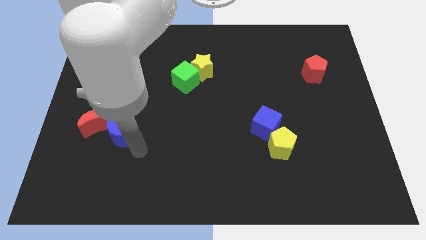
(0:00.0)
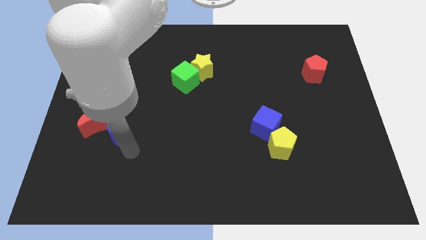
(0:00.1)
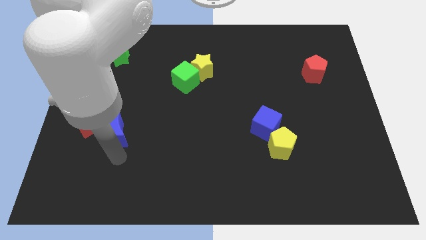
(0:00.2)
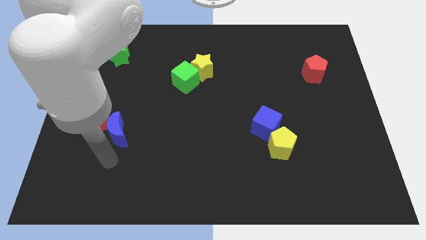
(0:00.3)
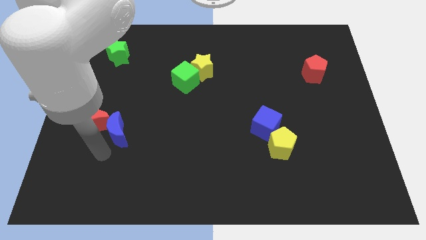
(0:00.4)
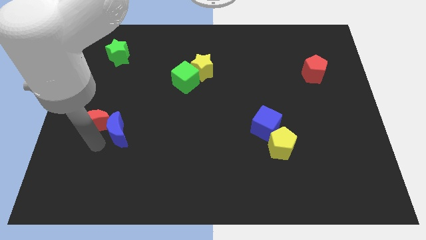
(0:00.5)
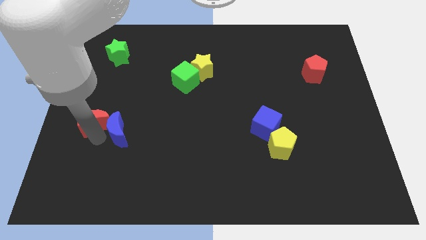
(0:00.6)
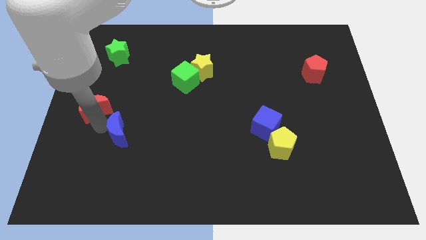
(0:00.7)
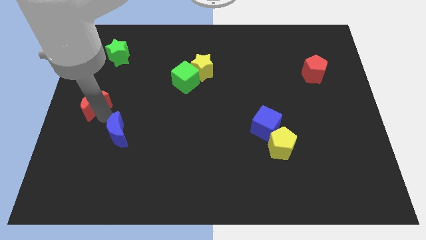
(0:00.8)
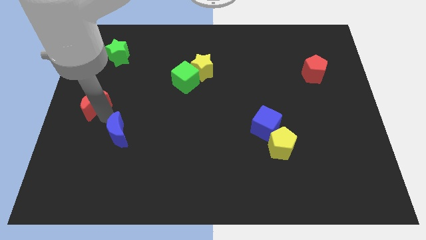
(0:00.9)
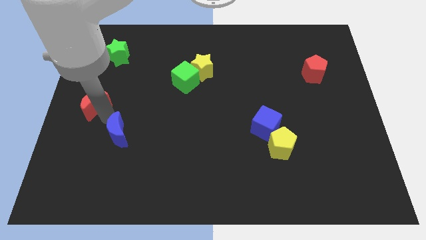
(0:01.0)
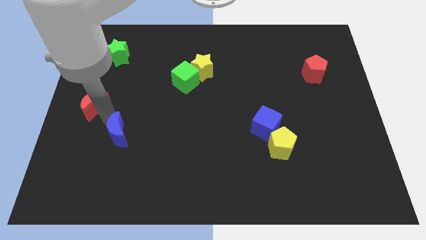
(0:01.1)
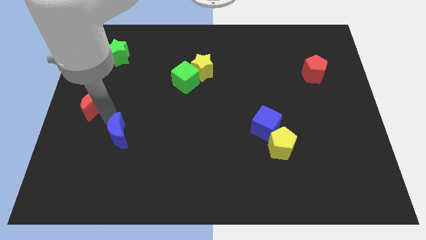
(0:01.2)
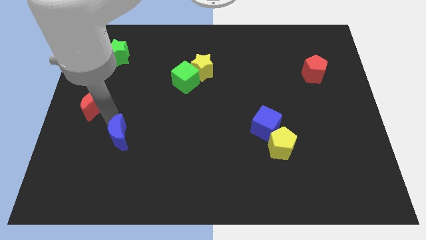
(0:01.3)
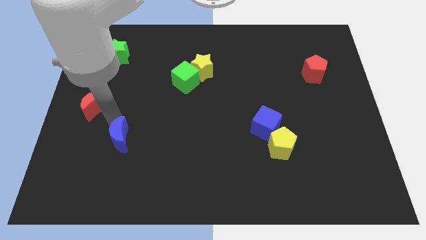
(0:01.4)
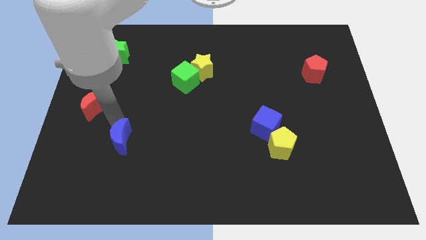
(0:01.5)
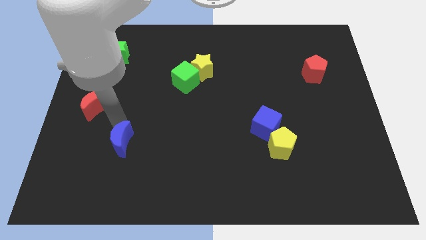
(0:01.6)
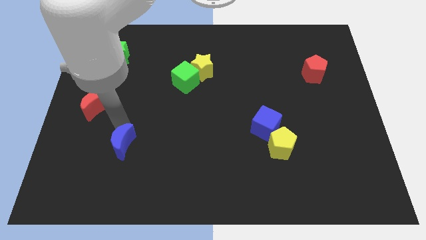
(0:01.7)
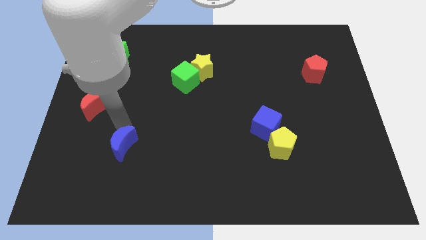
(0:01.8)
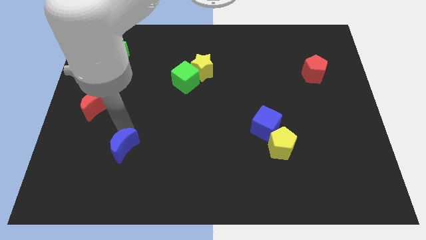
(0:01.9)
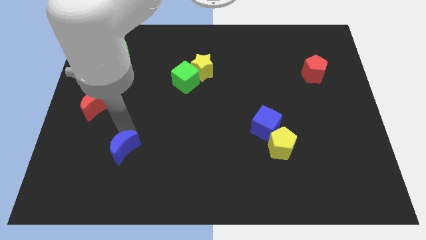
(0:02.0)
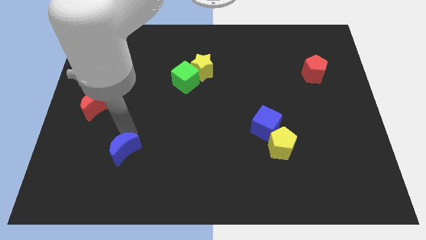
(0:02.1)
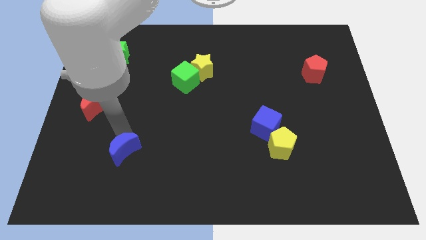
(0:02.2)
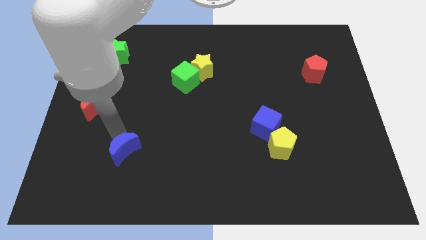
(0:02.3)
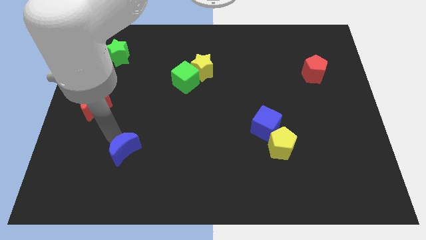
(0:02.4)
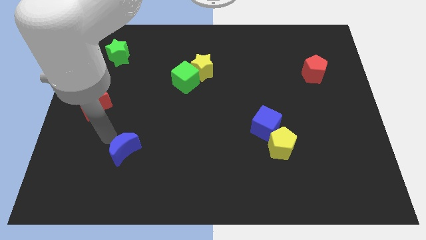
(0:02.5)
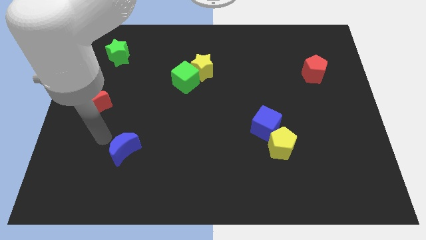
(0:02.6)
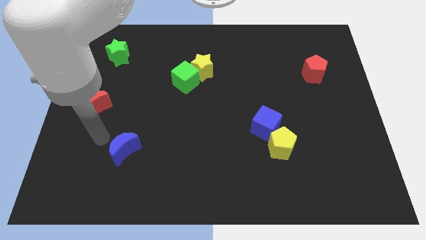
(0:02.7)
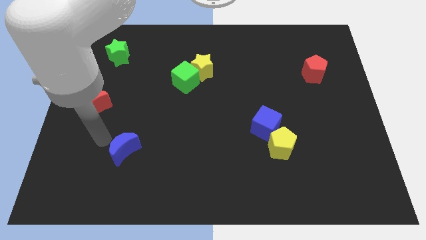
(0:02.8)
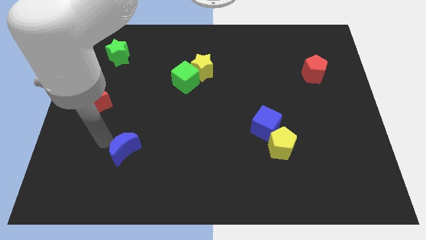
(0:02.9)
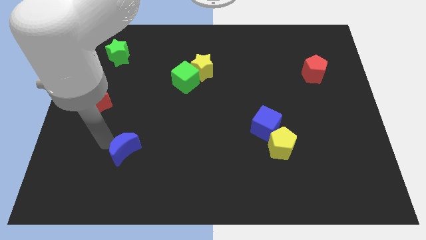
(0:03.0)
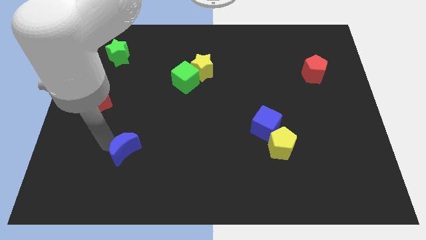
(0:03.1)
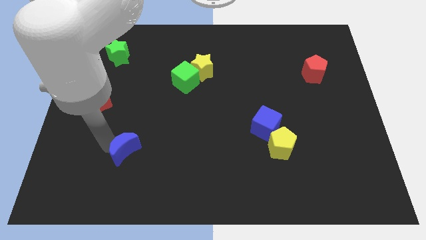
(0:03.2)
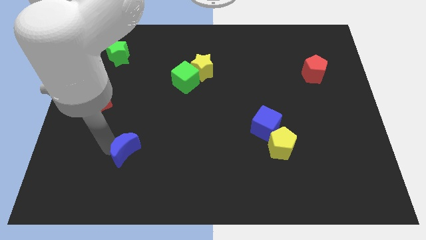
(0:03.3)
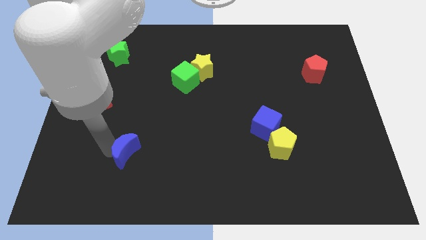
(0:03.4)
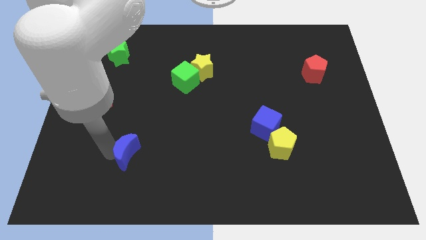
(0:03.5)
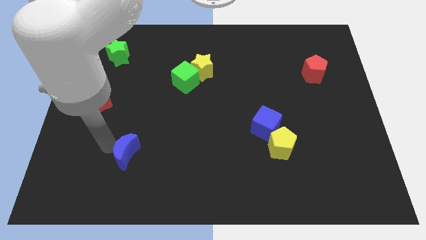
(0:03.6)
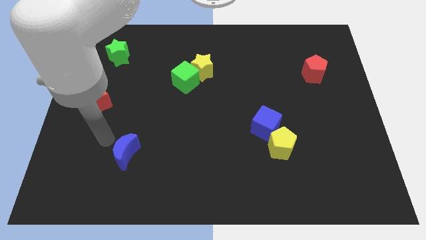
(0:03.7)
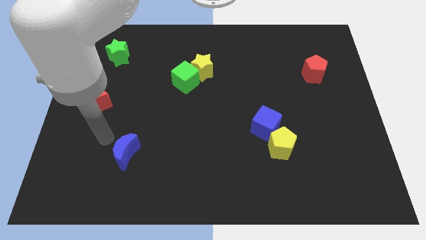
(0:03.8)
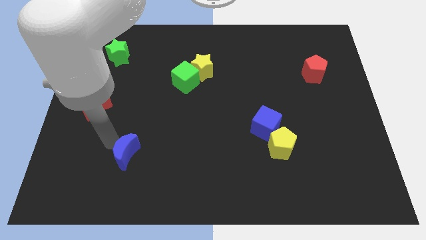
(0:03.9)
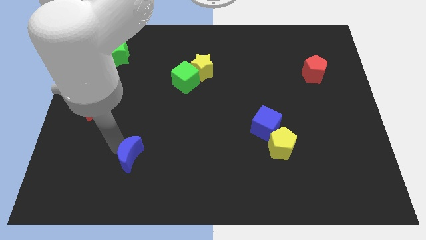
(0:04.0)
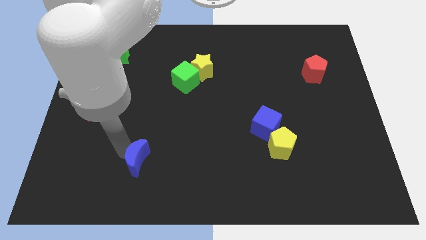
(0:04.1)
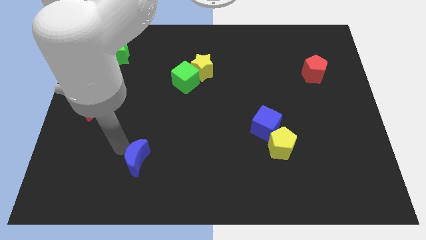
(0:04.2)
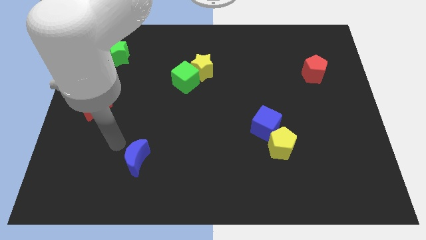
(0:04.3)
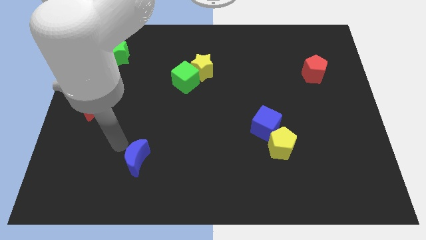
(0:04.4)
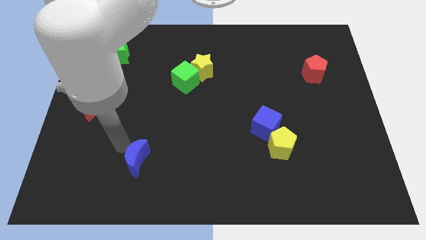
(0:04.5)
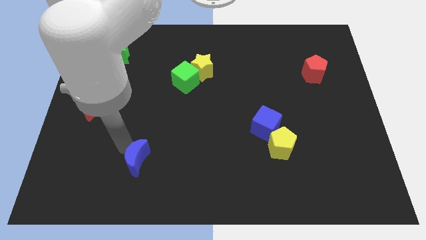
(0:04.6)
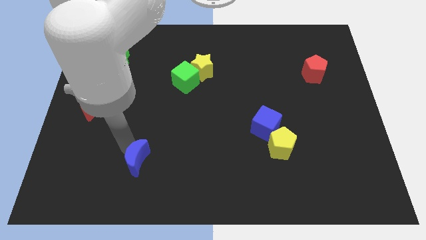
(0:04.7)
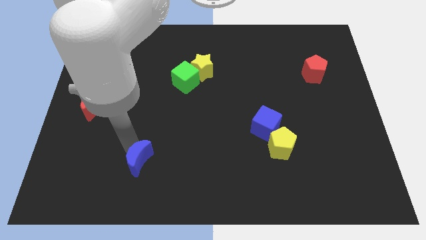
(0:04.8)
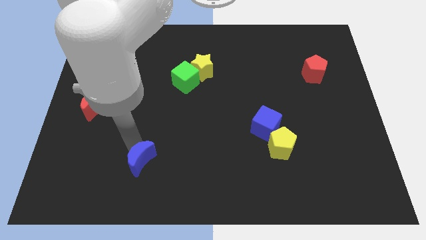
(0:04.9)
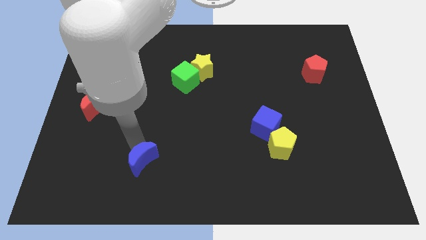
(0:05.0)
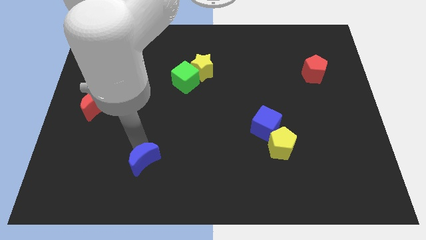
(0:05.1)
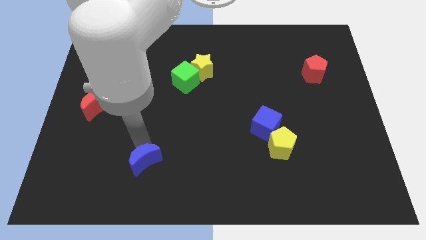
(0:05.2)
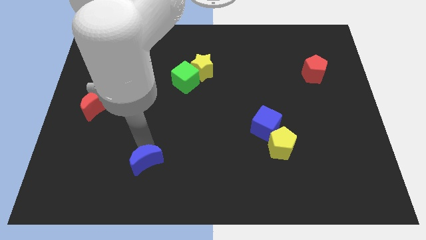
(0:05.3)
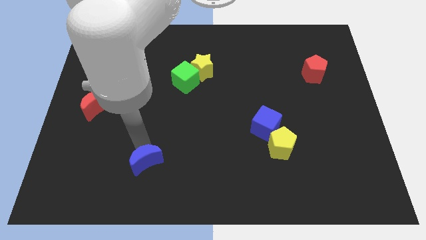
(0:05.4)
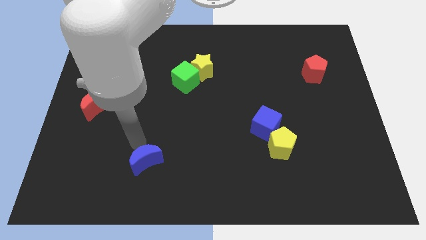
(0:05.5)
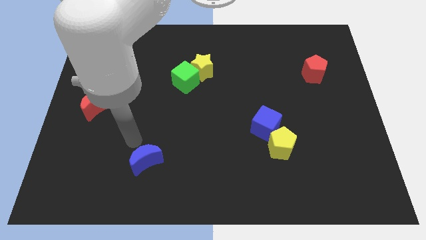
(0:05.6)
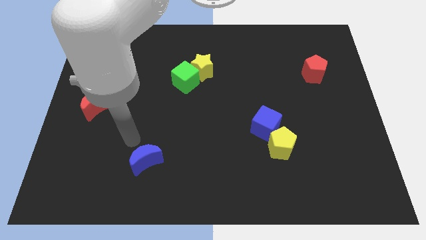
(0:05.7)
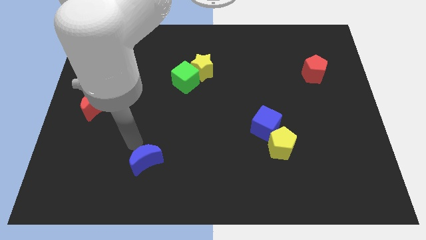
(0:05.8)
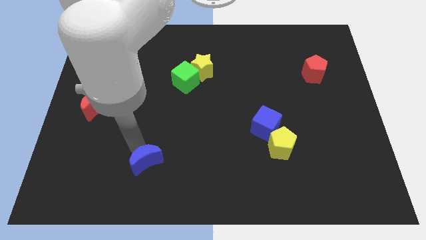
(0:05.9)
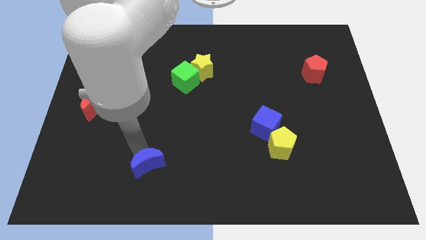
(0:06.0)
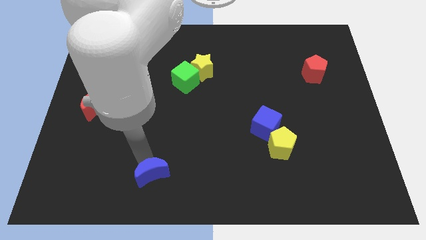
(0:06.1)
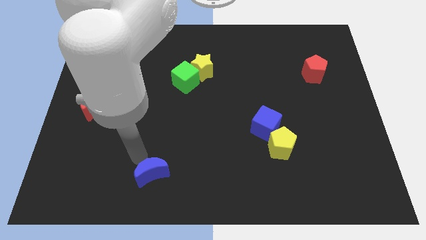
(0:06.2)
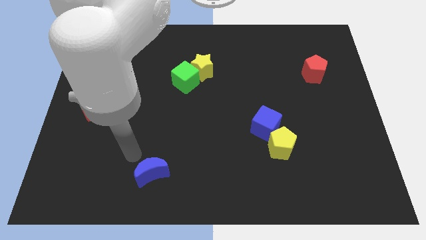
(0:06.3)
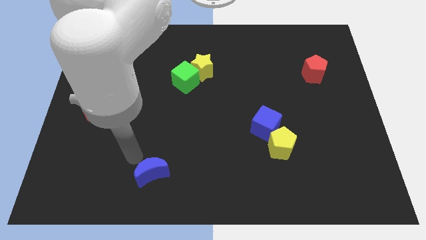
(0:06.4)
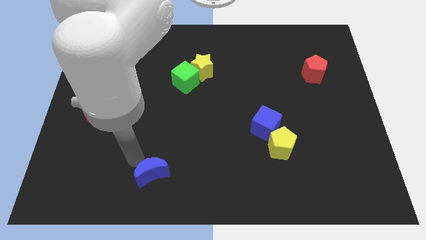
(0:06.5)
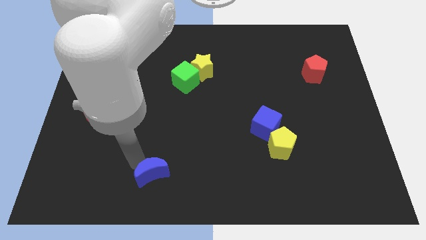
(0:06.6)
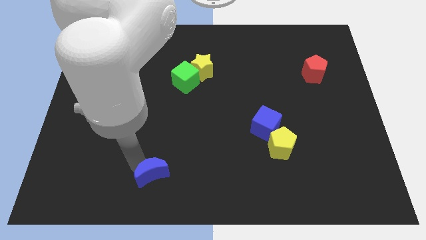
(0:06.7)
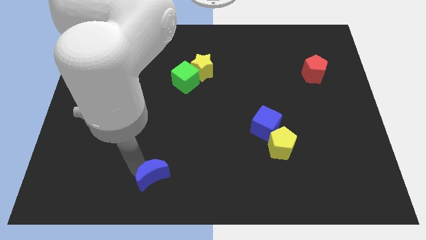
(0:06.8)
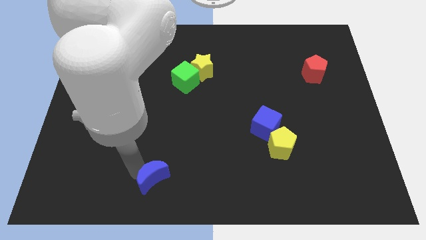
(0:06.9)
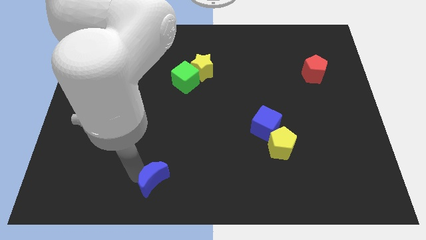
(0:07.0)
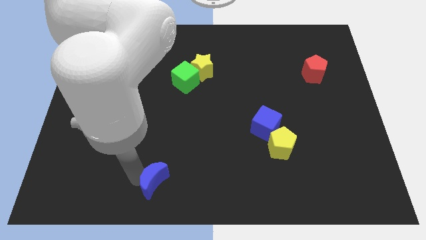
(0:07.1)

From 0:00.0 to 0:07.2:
slide the blue moon to the bottom
